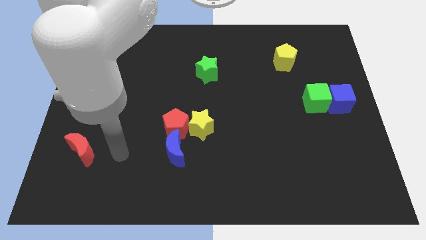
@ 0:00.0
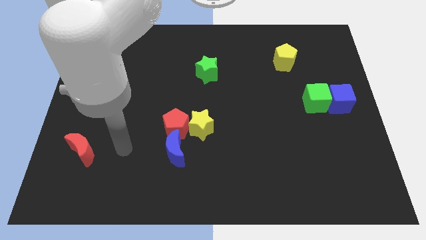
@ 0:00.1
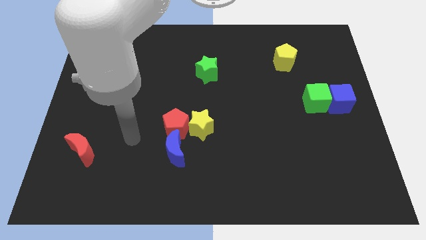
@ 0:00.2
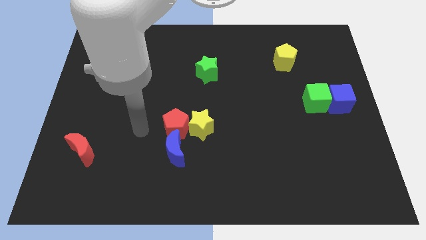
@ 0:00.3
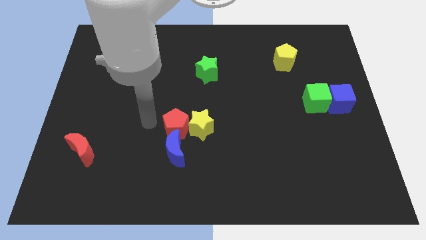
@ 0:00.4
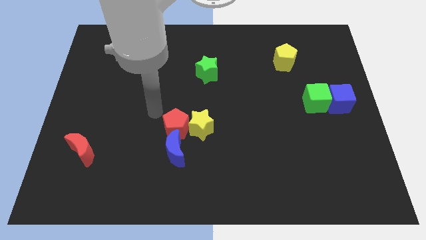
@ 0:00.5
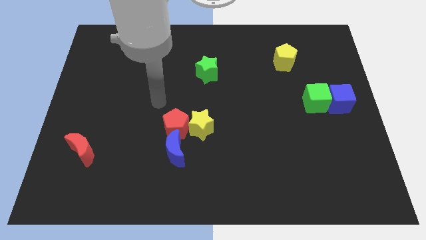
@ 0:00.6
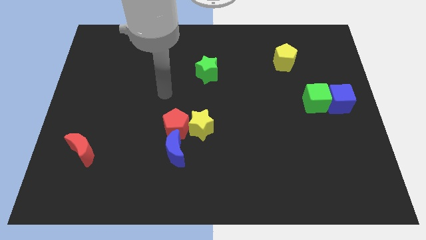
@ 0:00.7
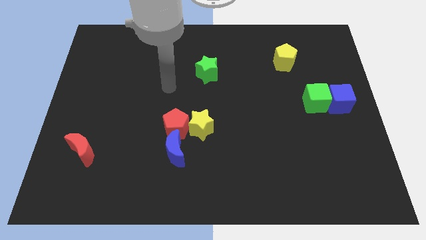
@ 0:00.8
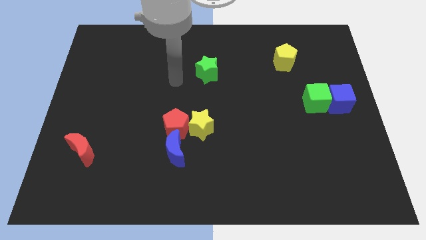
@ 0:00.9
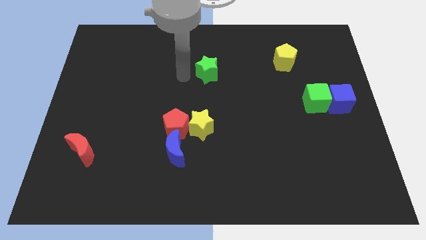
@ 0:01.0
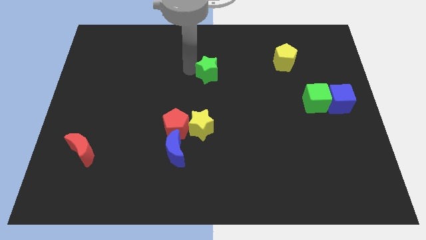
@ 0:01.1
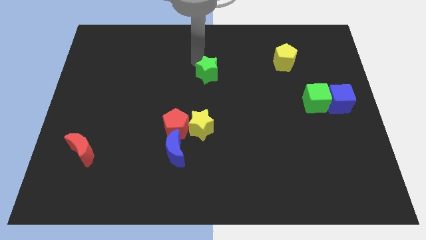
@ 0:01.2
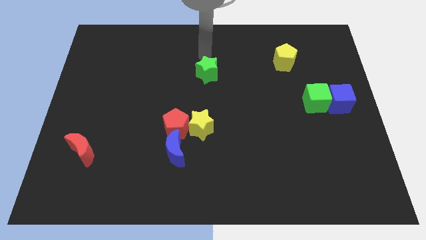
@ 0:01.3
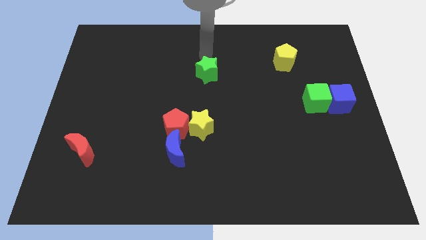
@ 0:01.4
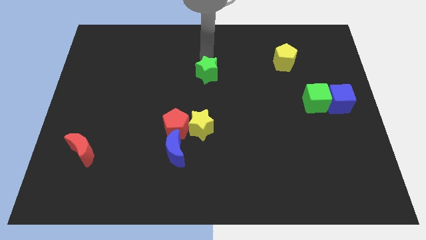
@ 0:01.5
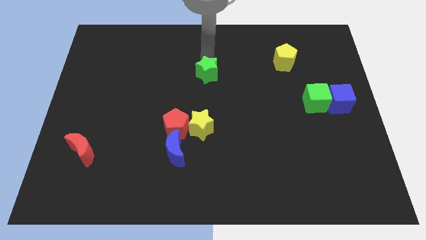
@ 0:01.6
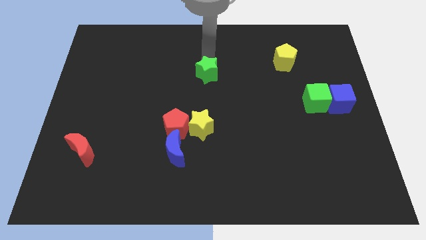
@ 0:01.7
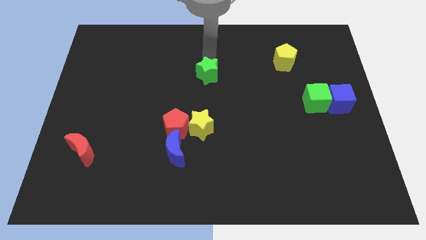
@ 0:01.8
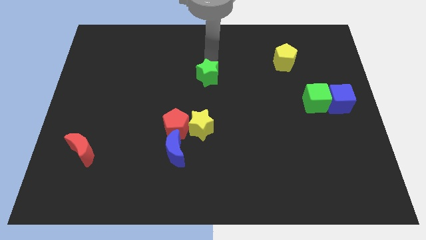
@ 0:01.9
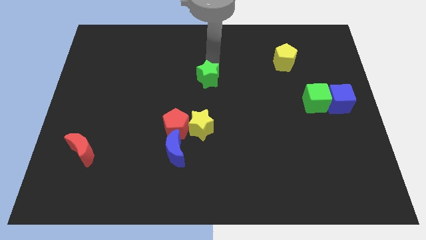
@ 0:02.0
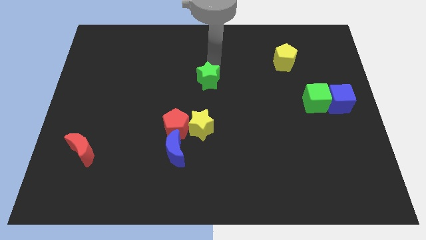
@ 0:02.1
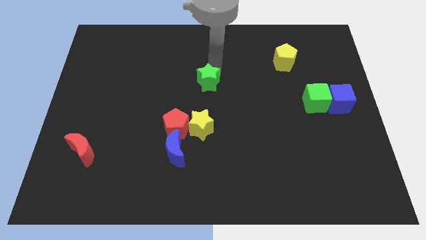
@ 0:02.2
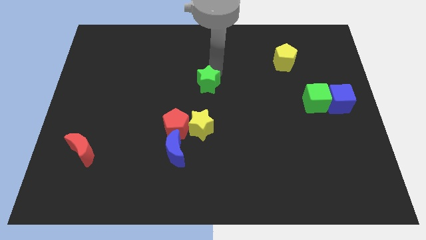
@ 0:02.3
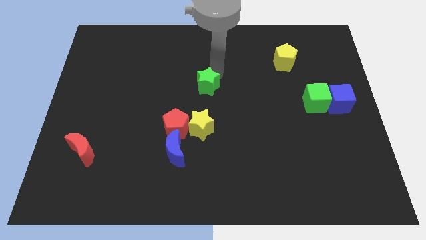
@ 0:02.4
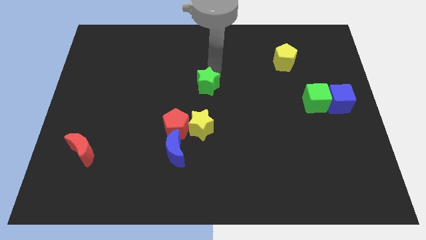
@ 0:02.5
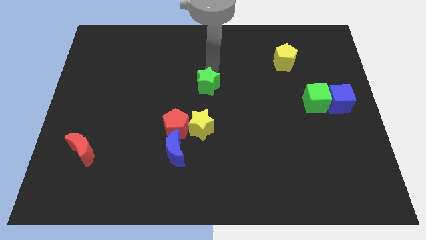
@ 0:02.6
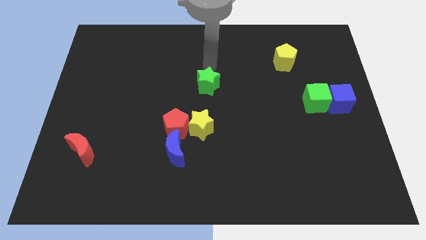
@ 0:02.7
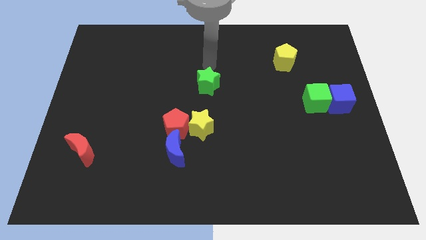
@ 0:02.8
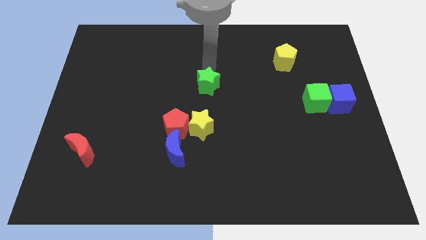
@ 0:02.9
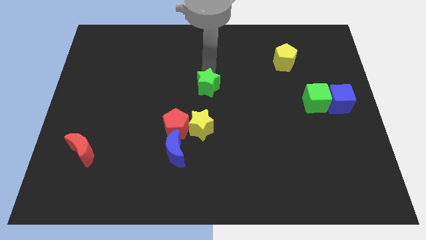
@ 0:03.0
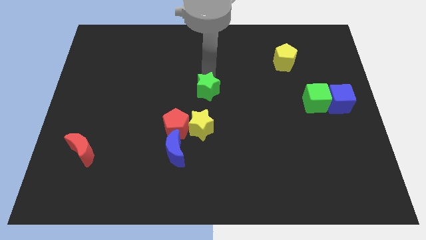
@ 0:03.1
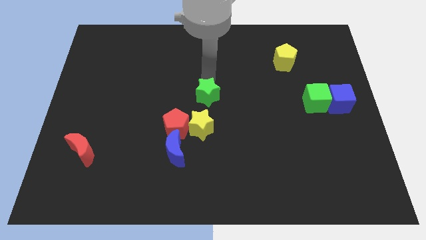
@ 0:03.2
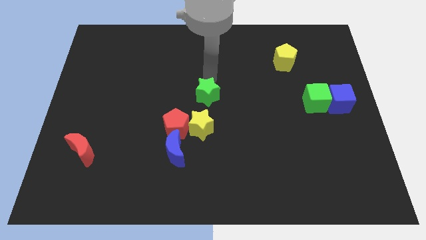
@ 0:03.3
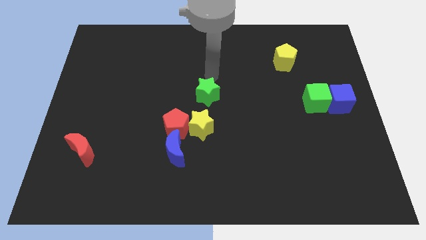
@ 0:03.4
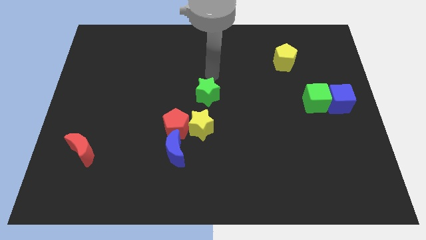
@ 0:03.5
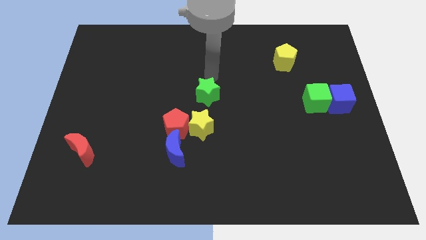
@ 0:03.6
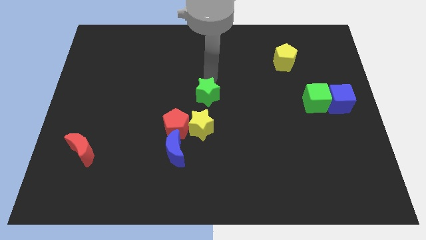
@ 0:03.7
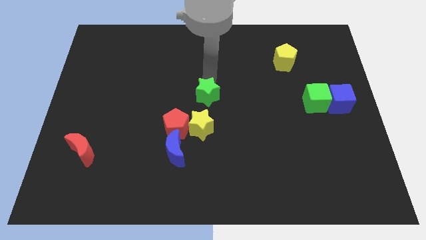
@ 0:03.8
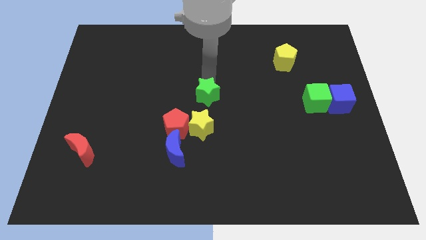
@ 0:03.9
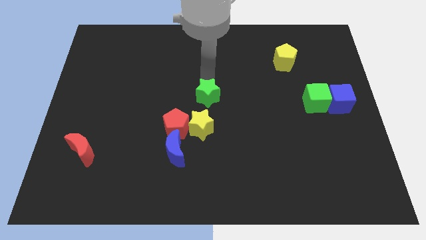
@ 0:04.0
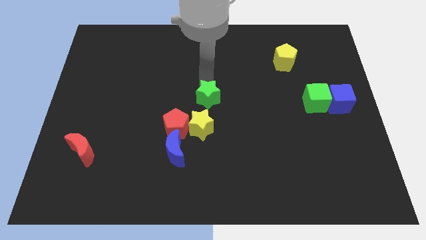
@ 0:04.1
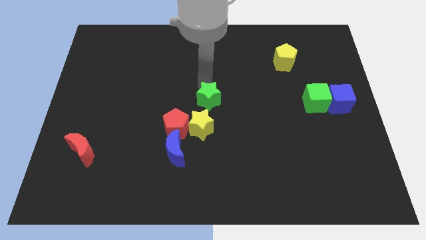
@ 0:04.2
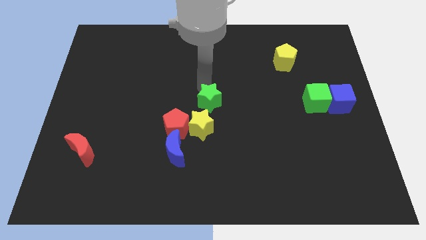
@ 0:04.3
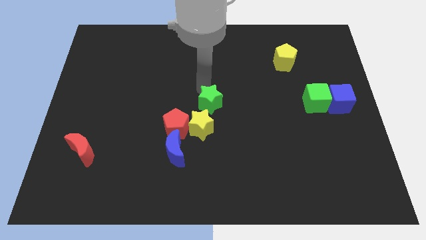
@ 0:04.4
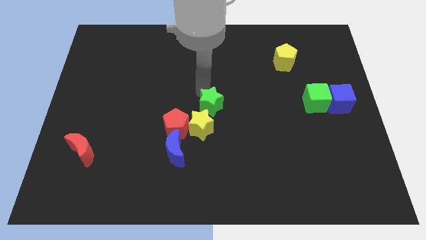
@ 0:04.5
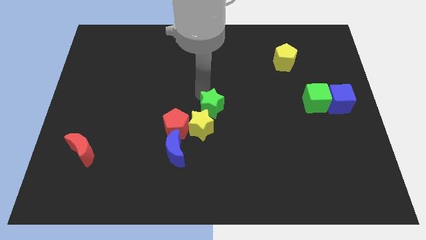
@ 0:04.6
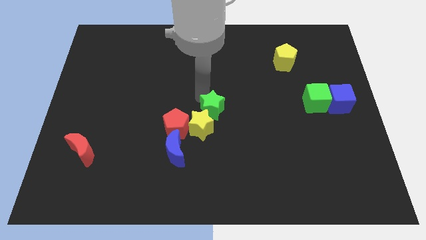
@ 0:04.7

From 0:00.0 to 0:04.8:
push the green star to the yellow star

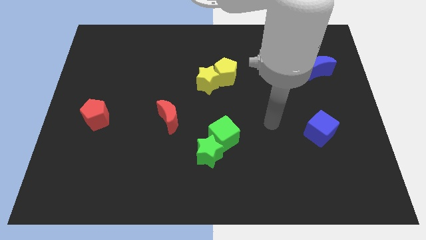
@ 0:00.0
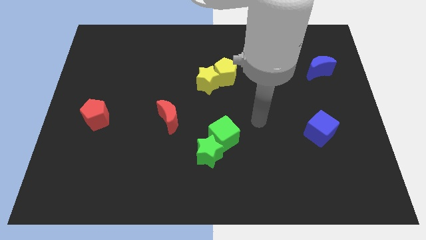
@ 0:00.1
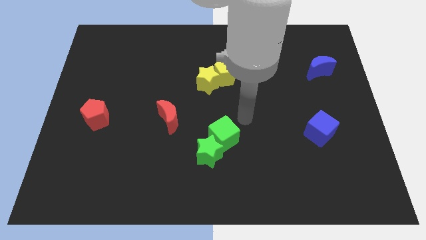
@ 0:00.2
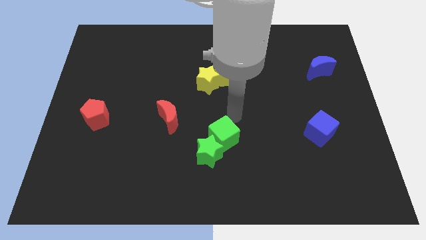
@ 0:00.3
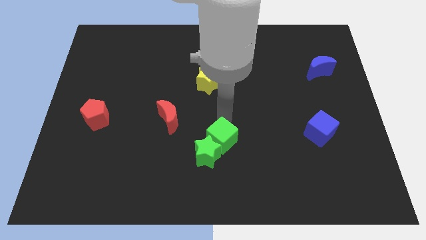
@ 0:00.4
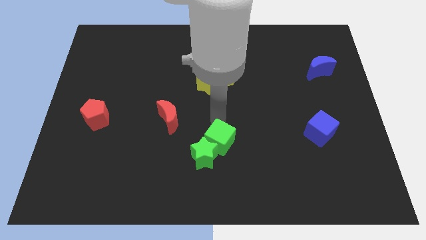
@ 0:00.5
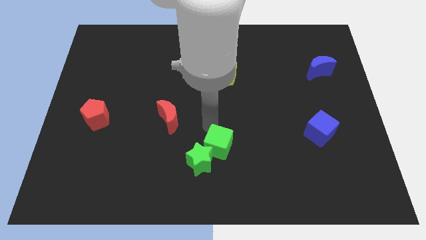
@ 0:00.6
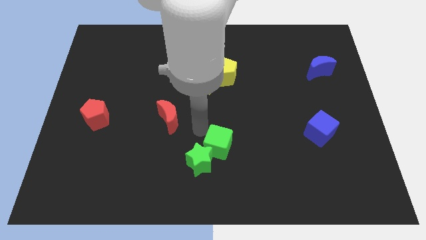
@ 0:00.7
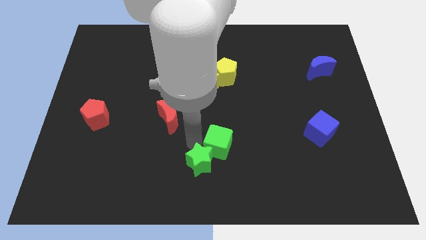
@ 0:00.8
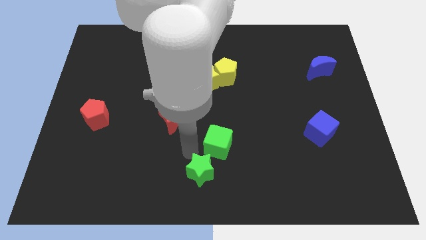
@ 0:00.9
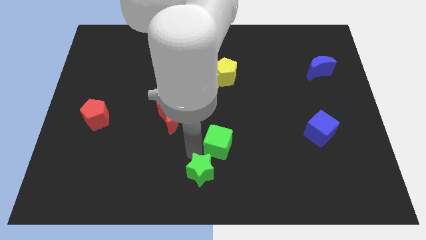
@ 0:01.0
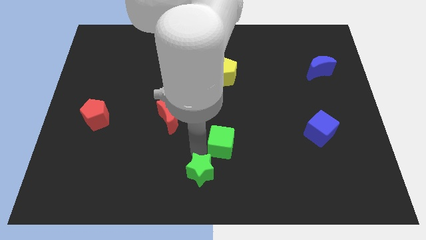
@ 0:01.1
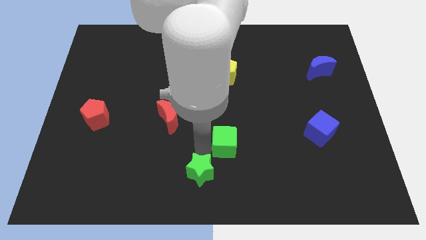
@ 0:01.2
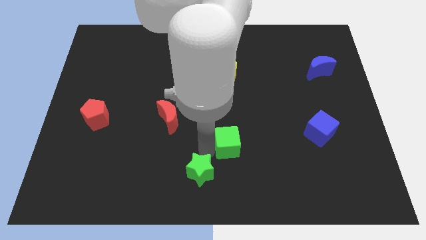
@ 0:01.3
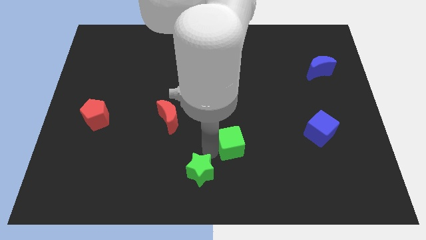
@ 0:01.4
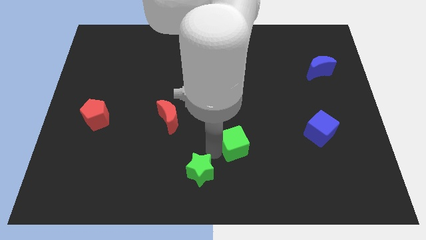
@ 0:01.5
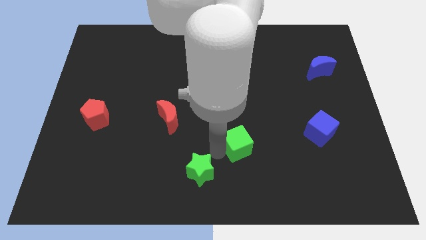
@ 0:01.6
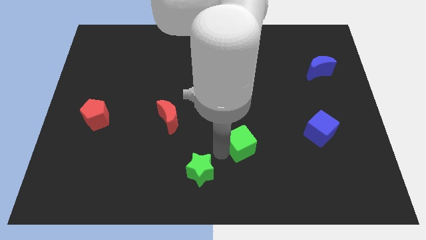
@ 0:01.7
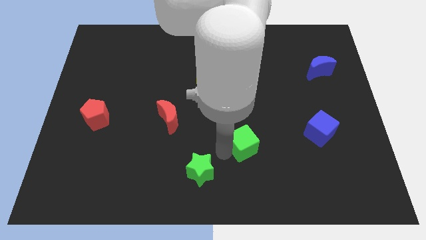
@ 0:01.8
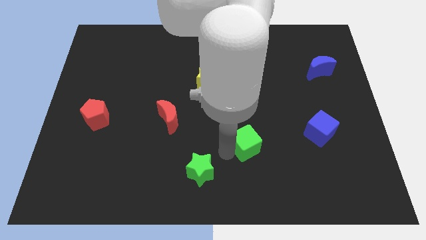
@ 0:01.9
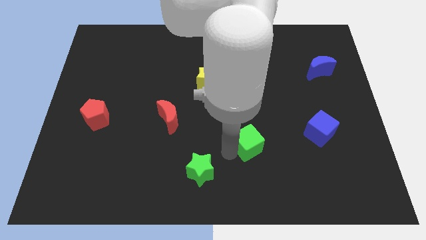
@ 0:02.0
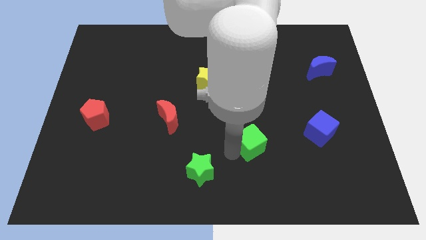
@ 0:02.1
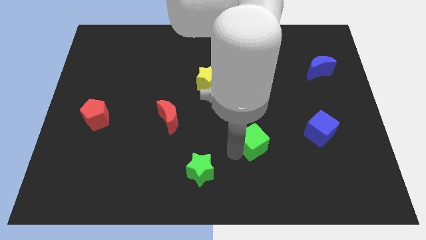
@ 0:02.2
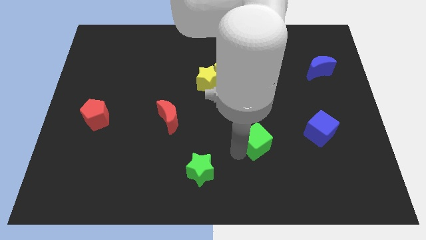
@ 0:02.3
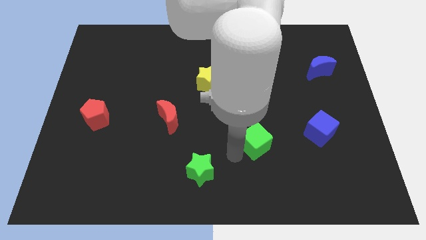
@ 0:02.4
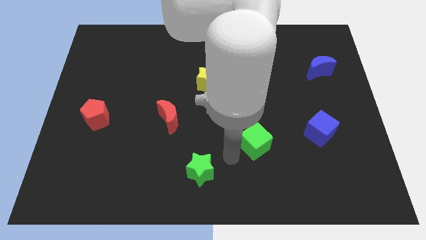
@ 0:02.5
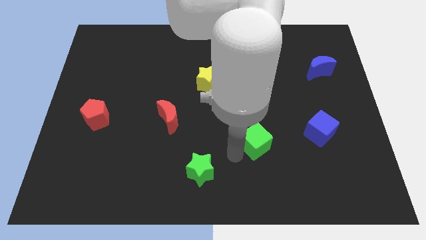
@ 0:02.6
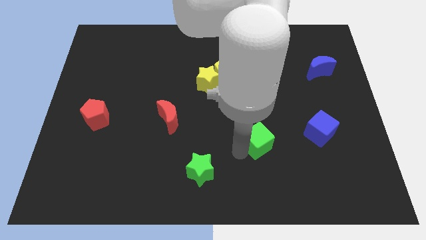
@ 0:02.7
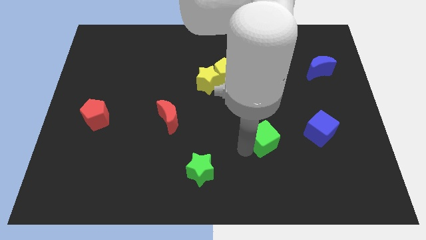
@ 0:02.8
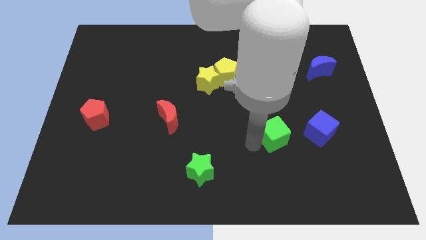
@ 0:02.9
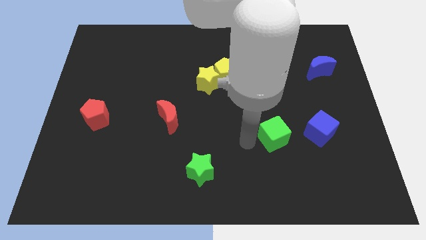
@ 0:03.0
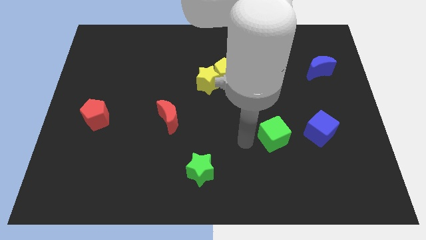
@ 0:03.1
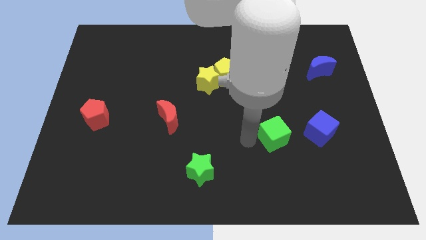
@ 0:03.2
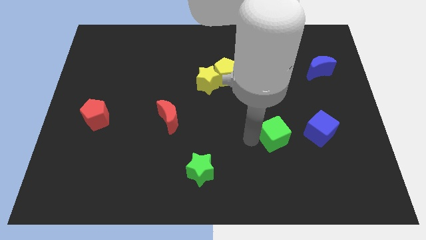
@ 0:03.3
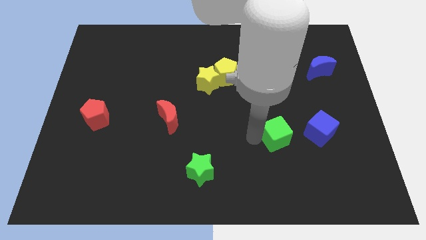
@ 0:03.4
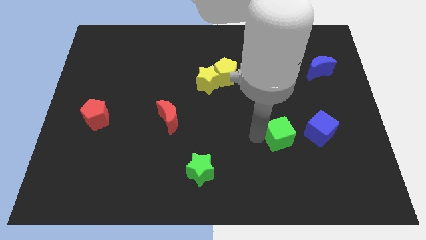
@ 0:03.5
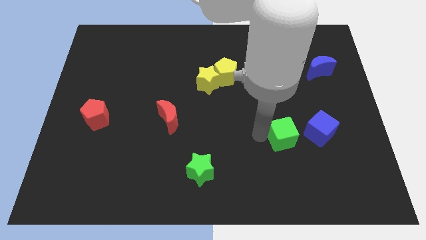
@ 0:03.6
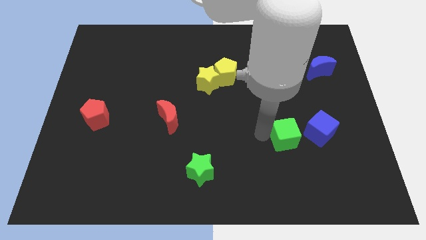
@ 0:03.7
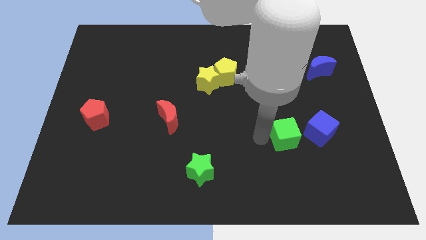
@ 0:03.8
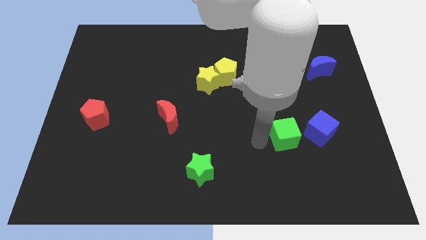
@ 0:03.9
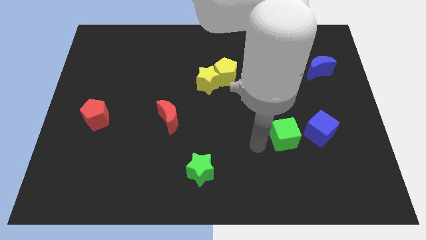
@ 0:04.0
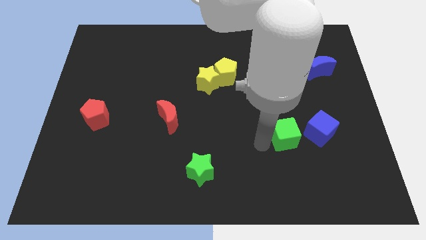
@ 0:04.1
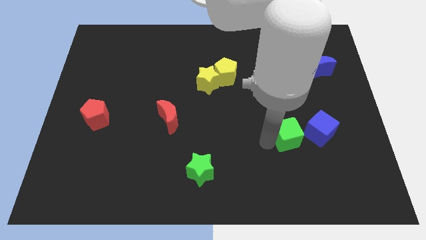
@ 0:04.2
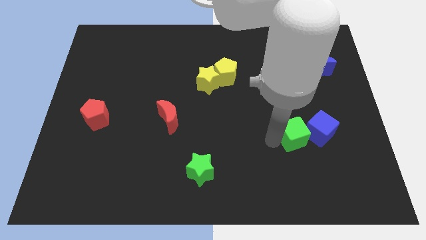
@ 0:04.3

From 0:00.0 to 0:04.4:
push the green cube towards the blue cube
